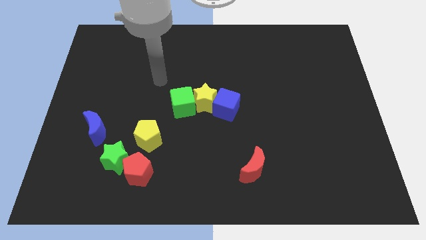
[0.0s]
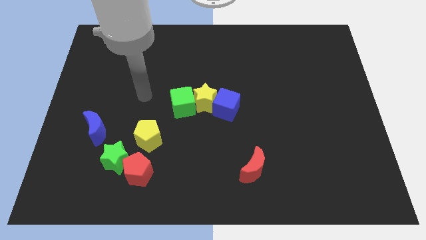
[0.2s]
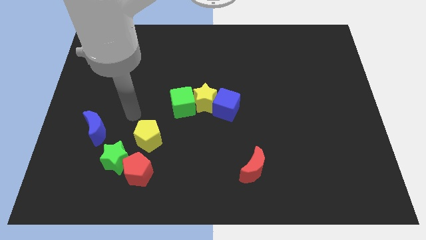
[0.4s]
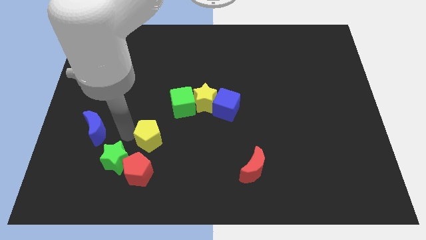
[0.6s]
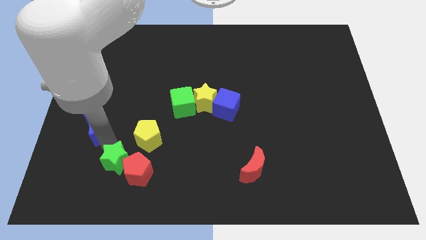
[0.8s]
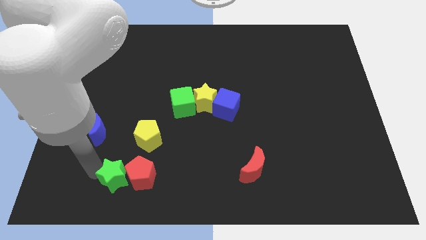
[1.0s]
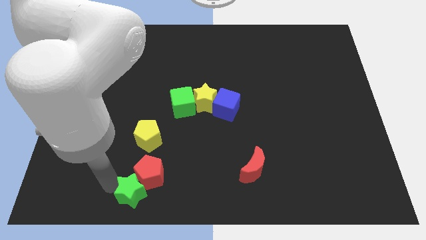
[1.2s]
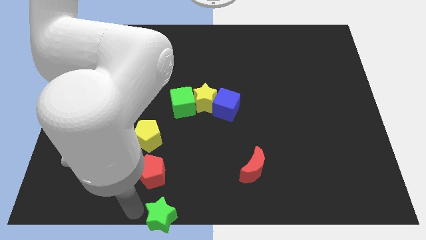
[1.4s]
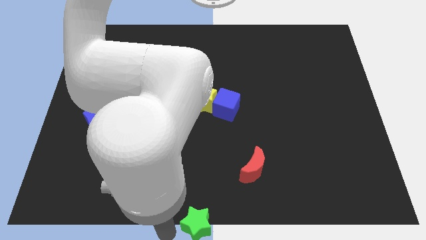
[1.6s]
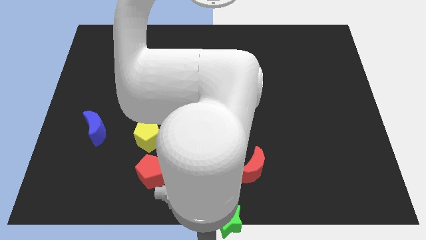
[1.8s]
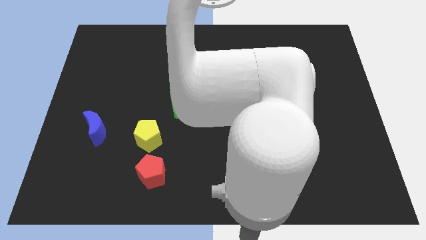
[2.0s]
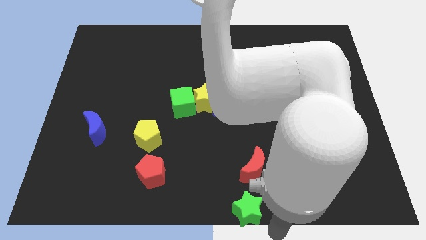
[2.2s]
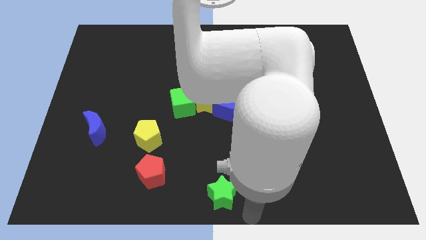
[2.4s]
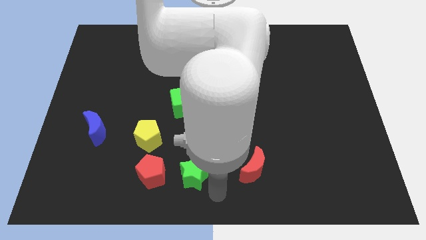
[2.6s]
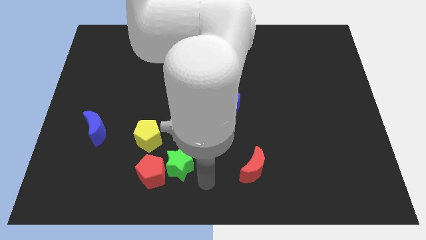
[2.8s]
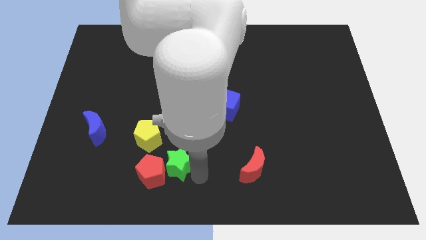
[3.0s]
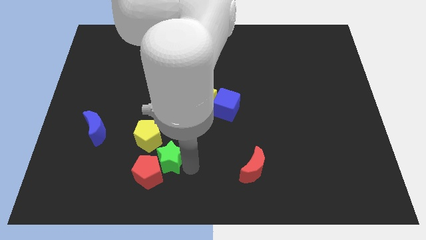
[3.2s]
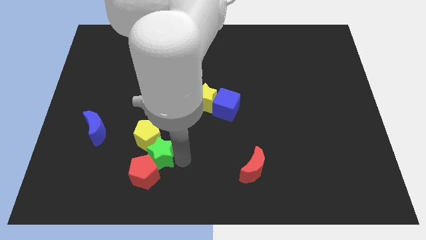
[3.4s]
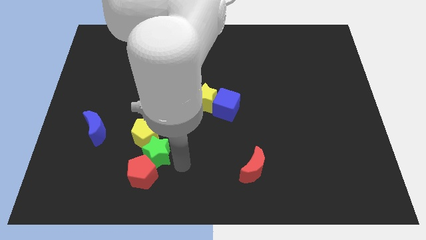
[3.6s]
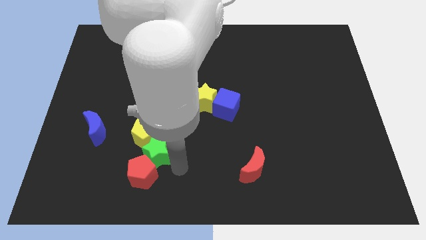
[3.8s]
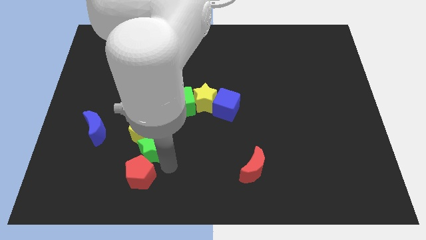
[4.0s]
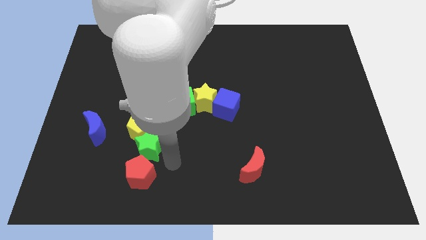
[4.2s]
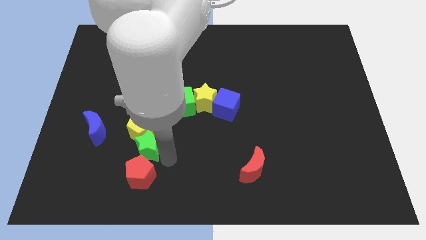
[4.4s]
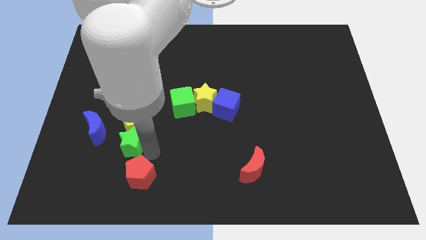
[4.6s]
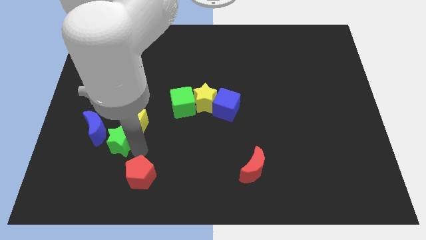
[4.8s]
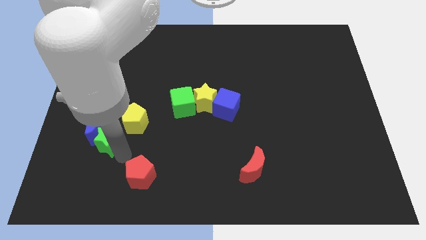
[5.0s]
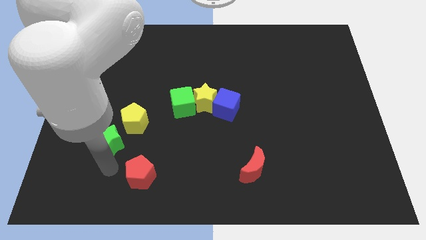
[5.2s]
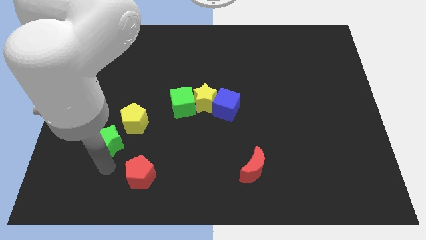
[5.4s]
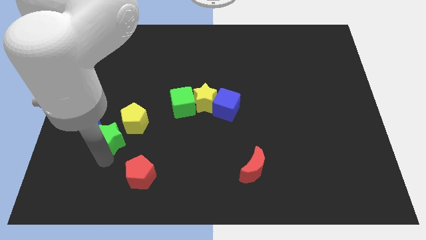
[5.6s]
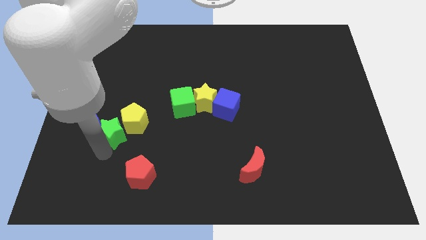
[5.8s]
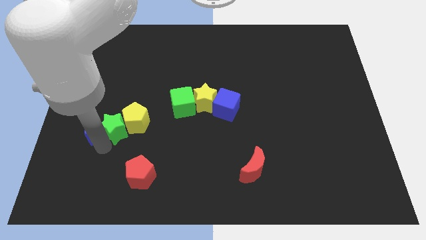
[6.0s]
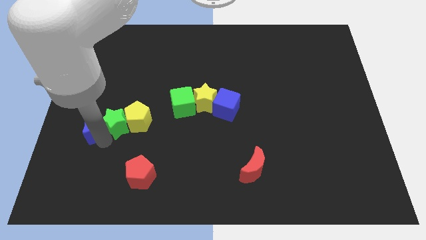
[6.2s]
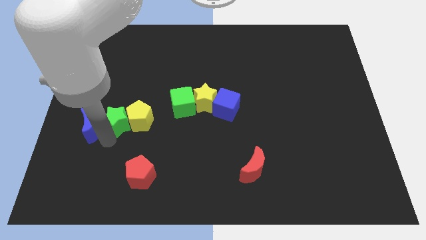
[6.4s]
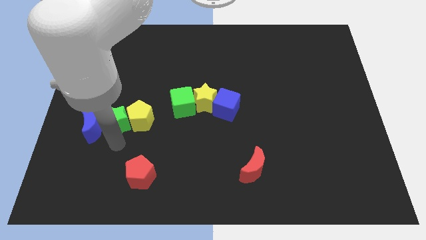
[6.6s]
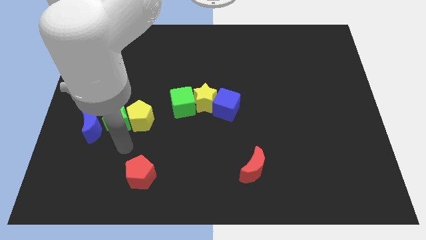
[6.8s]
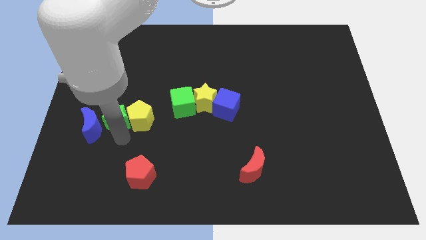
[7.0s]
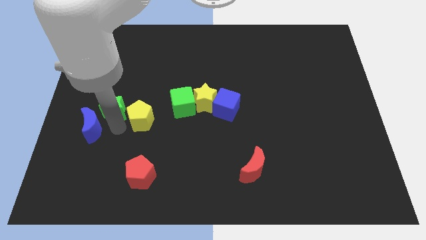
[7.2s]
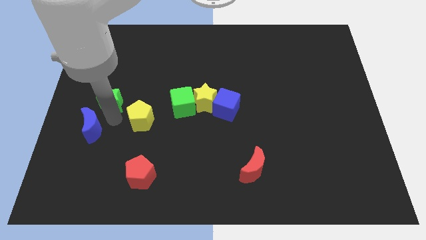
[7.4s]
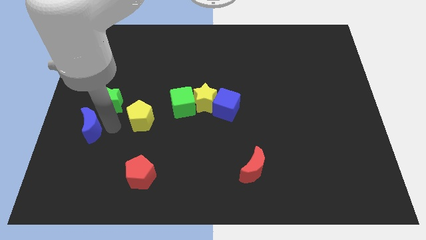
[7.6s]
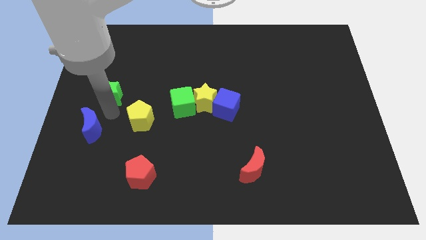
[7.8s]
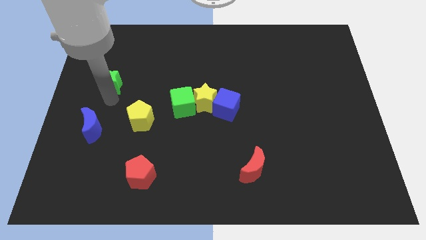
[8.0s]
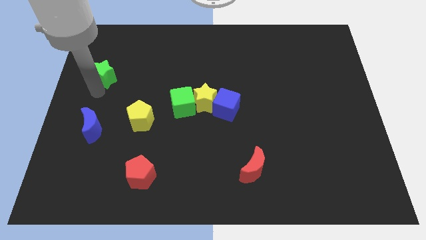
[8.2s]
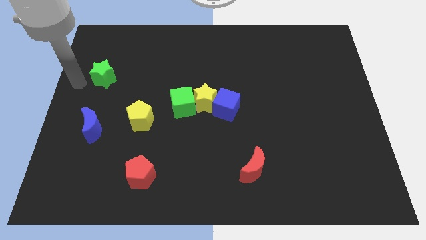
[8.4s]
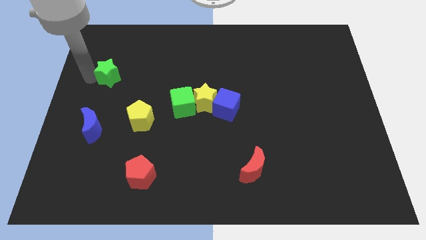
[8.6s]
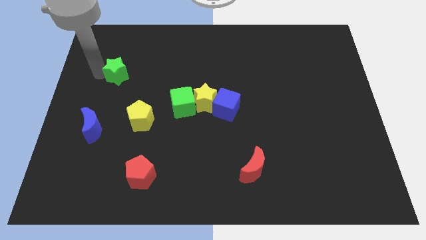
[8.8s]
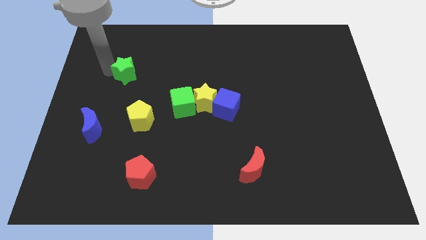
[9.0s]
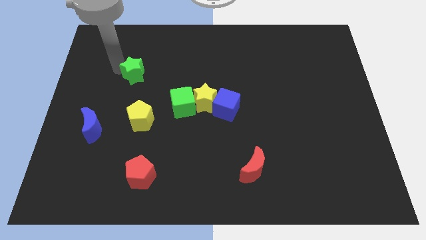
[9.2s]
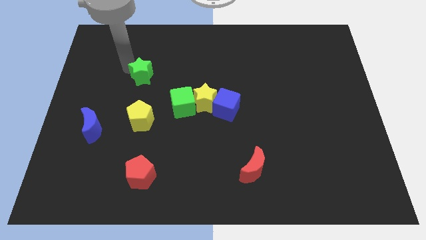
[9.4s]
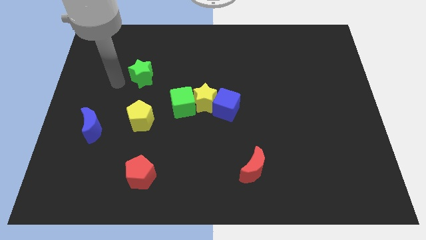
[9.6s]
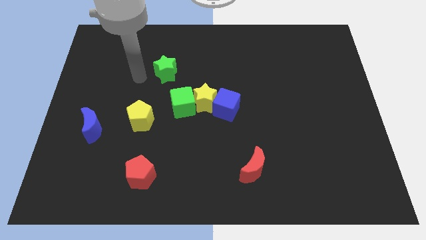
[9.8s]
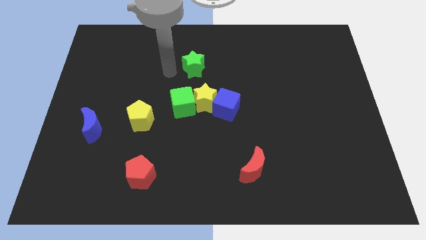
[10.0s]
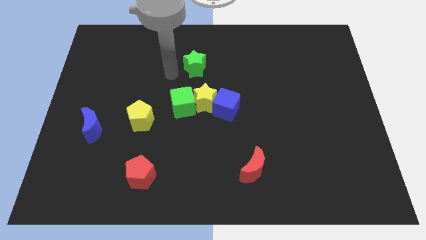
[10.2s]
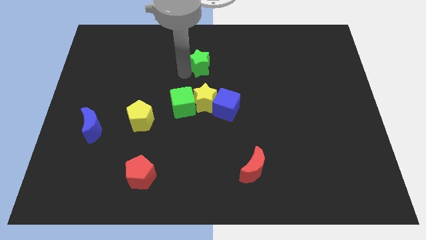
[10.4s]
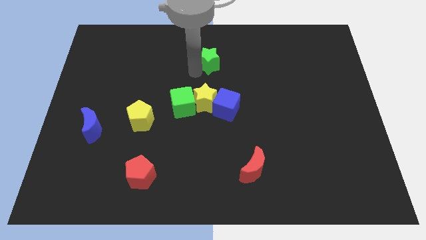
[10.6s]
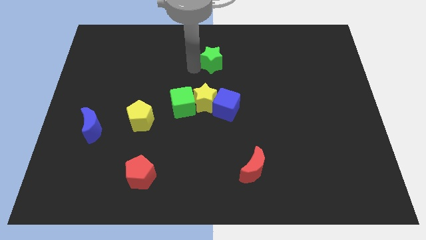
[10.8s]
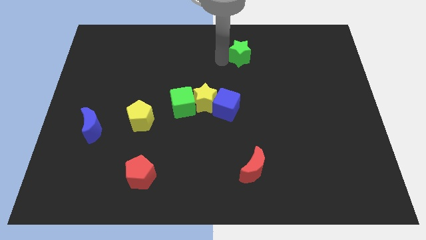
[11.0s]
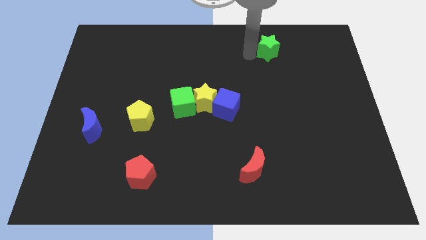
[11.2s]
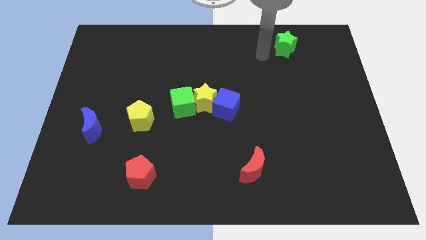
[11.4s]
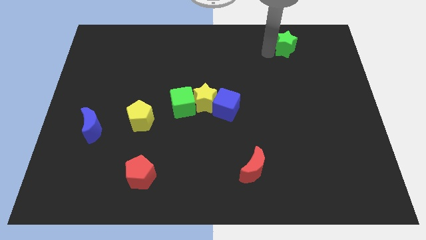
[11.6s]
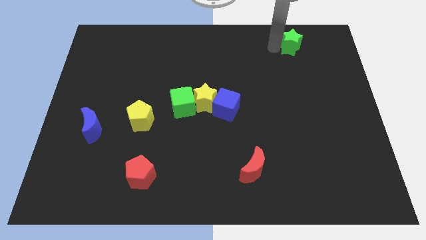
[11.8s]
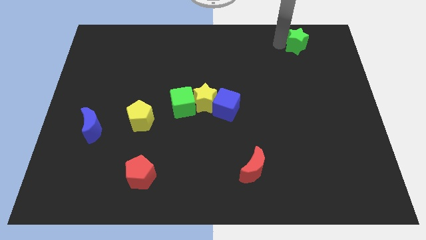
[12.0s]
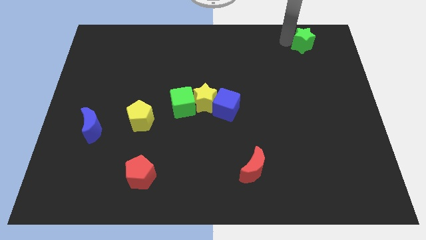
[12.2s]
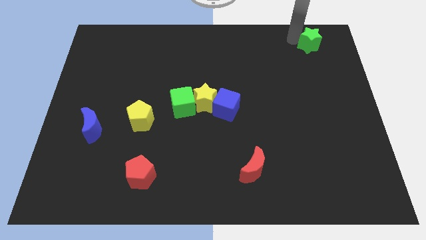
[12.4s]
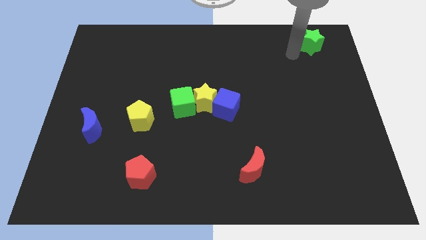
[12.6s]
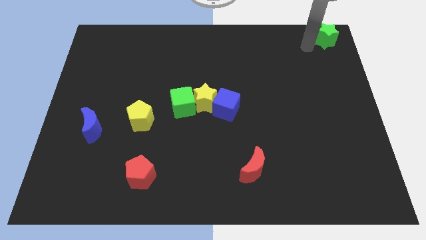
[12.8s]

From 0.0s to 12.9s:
push the green star to the top right corner
